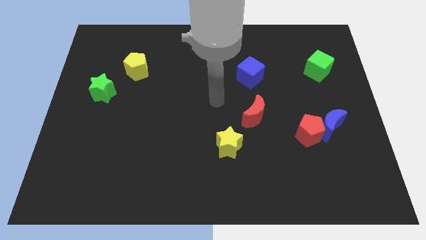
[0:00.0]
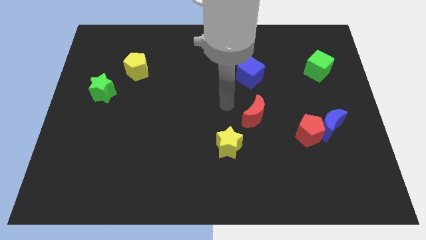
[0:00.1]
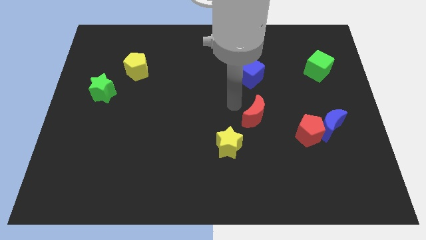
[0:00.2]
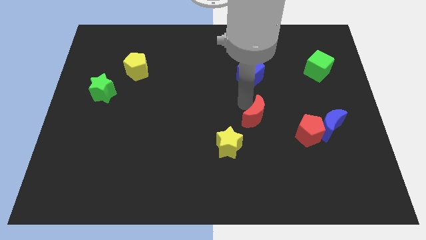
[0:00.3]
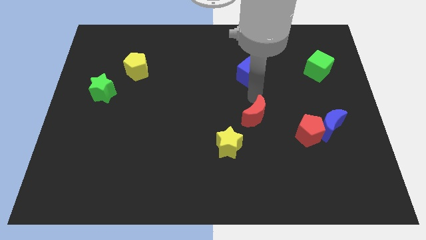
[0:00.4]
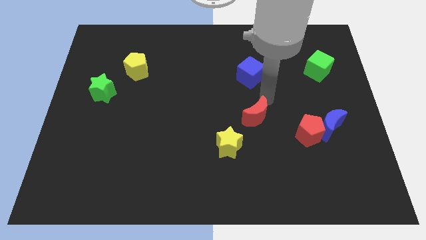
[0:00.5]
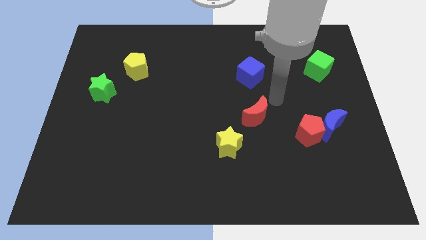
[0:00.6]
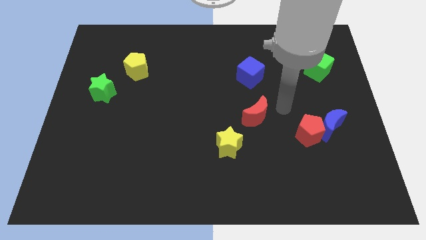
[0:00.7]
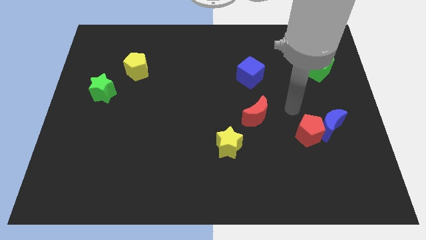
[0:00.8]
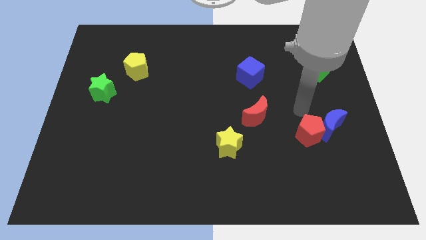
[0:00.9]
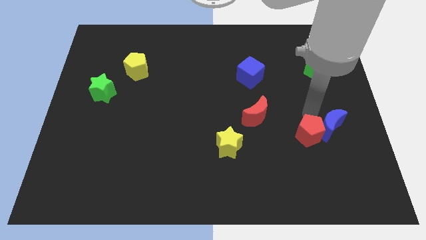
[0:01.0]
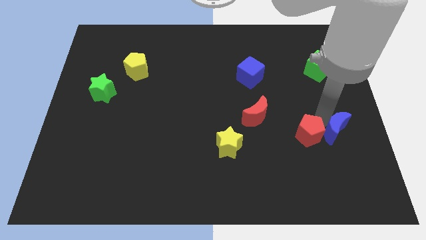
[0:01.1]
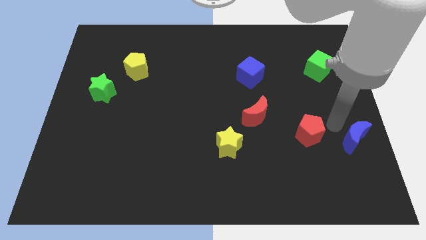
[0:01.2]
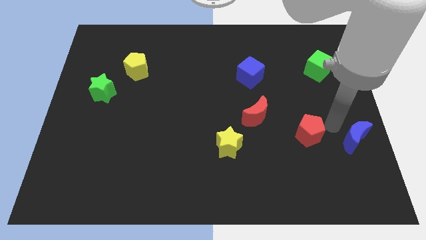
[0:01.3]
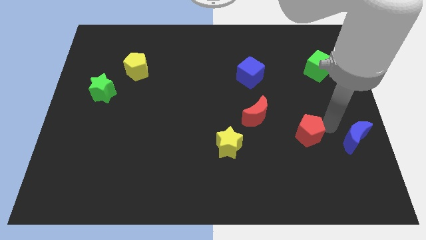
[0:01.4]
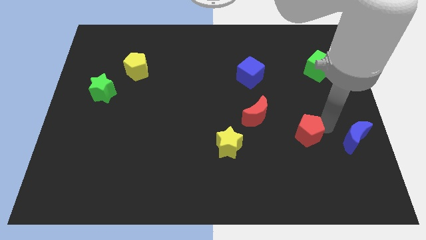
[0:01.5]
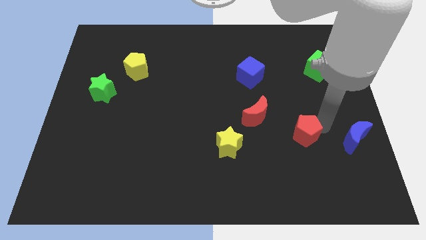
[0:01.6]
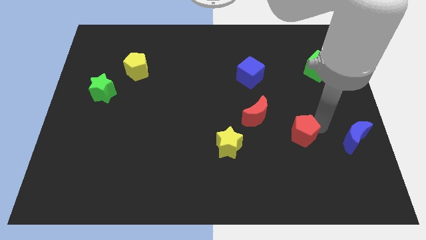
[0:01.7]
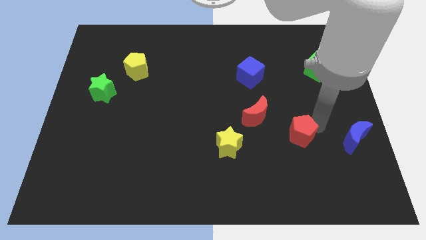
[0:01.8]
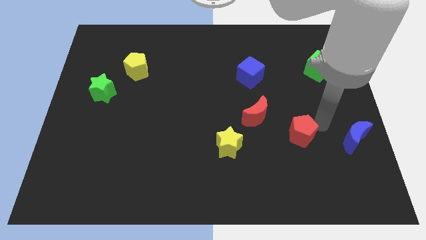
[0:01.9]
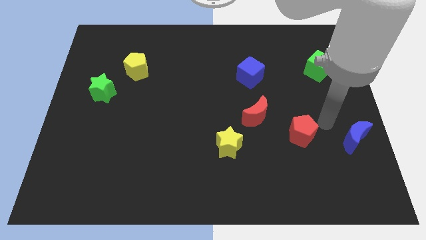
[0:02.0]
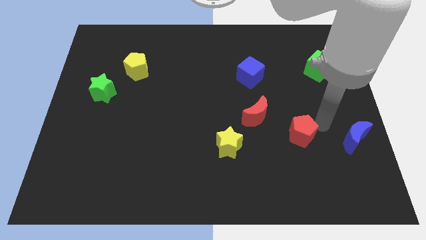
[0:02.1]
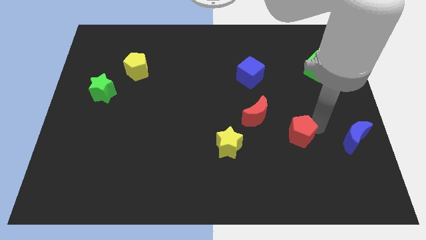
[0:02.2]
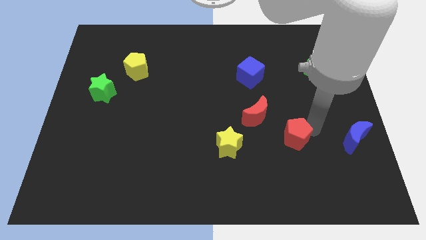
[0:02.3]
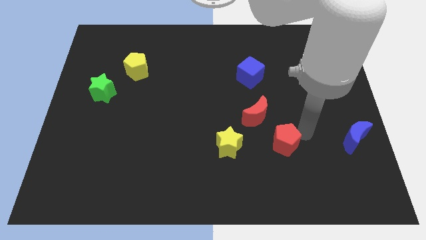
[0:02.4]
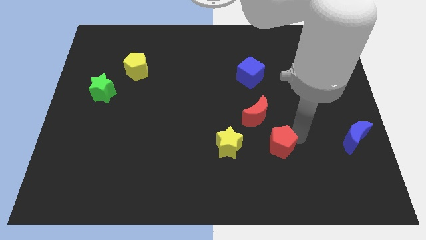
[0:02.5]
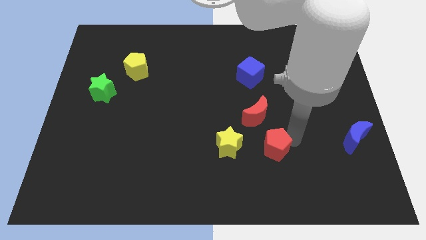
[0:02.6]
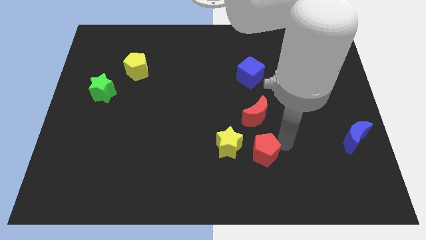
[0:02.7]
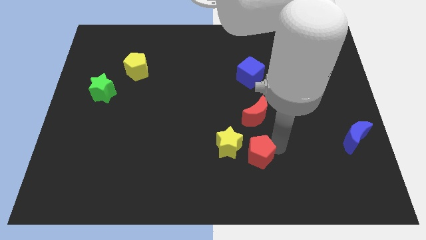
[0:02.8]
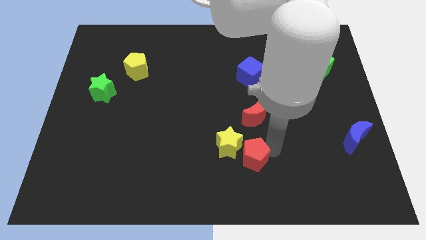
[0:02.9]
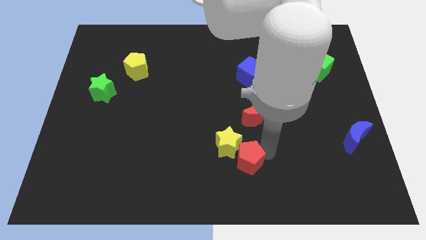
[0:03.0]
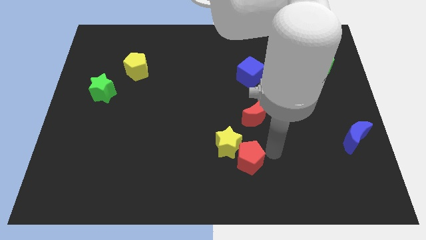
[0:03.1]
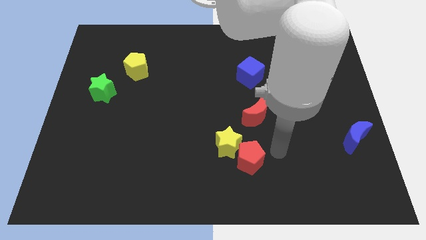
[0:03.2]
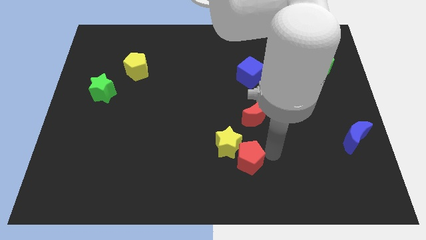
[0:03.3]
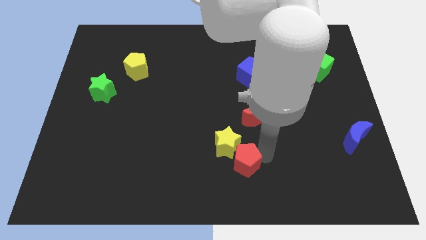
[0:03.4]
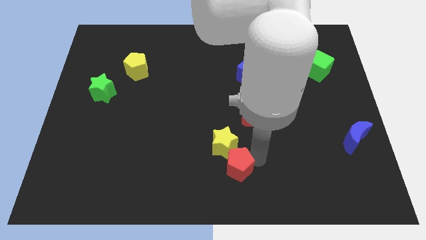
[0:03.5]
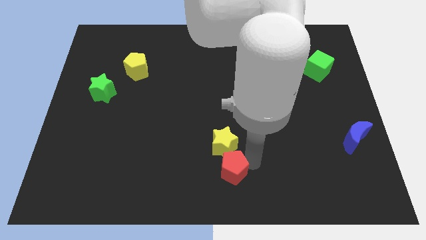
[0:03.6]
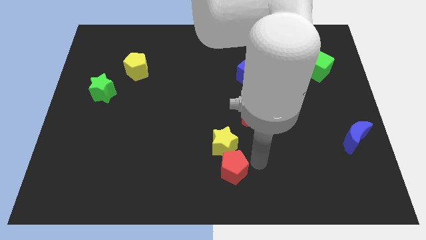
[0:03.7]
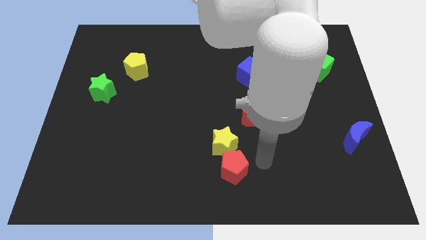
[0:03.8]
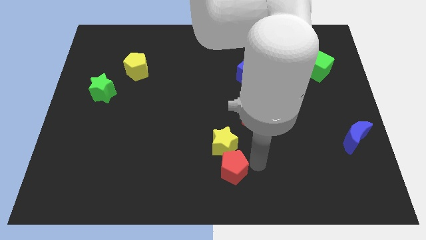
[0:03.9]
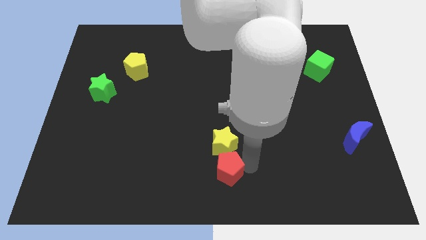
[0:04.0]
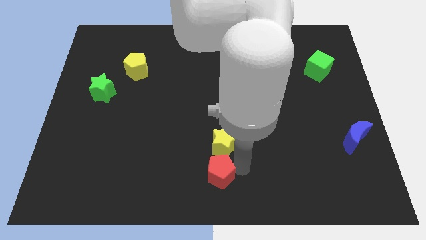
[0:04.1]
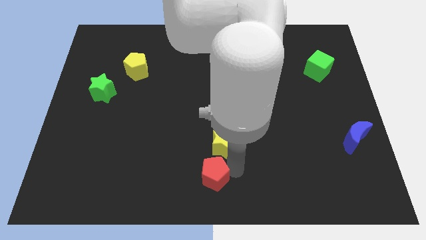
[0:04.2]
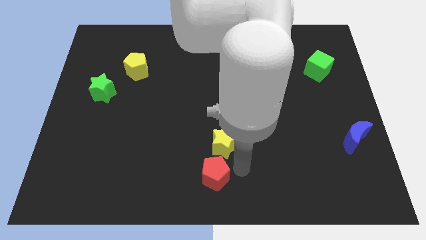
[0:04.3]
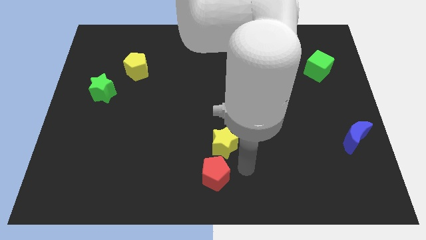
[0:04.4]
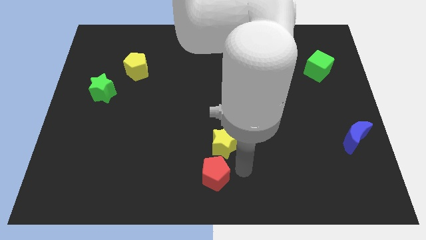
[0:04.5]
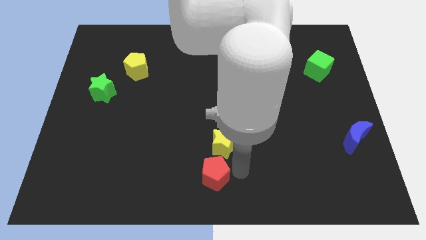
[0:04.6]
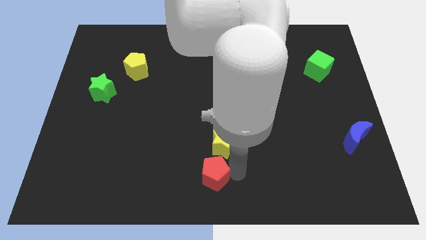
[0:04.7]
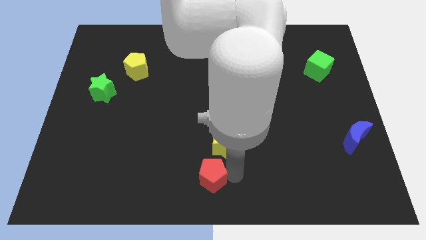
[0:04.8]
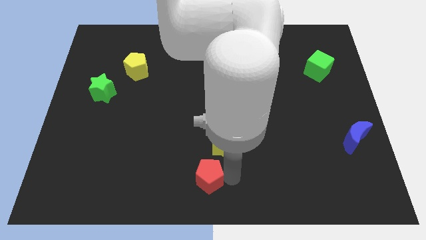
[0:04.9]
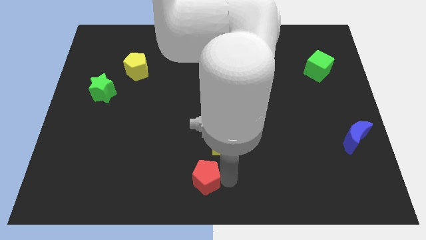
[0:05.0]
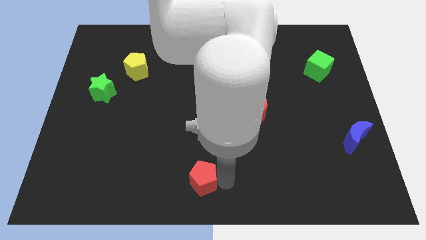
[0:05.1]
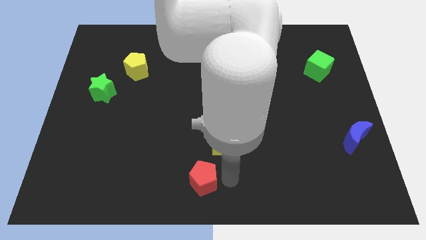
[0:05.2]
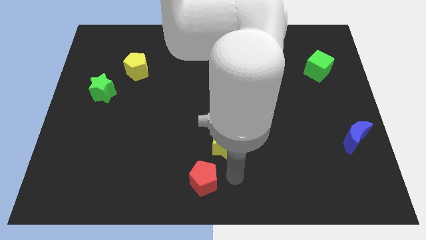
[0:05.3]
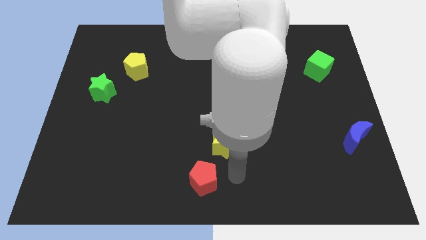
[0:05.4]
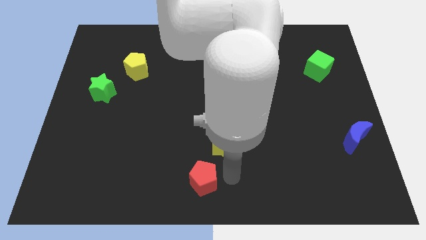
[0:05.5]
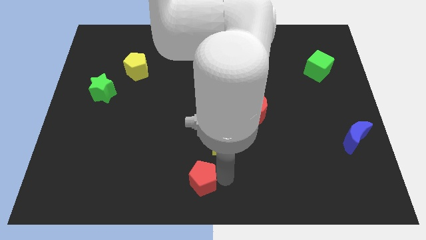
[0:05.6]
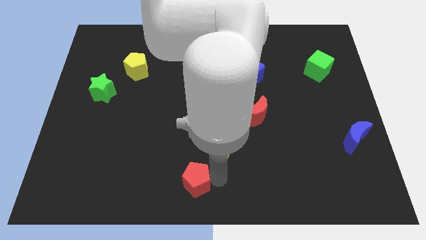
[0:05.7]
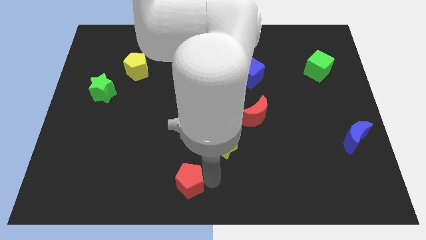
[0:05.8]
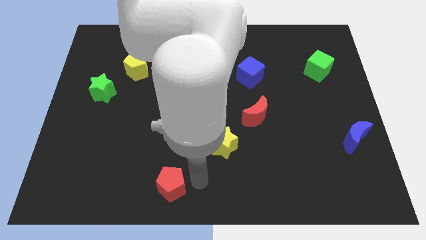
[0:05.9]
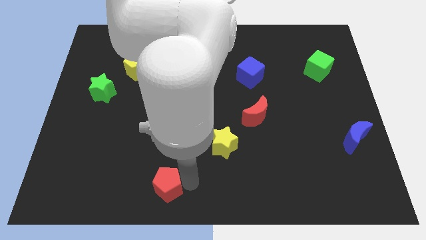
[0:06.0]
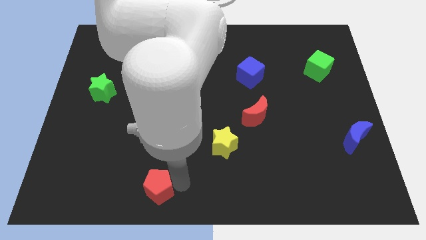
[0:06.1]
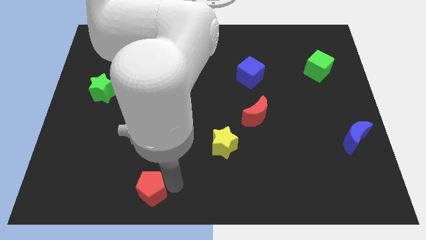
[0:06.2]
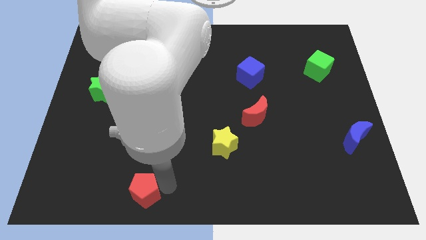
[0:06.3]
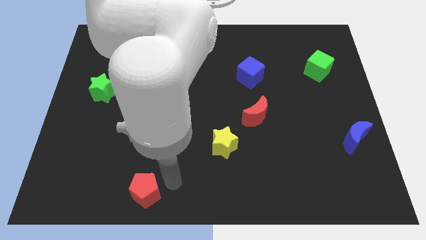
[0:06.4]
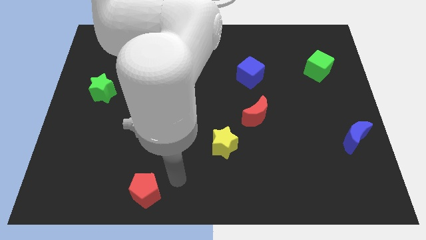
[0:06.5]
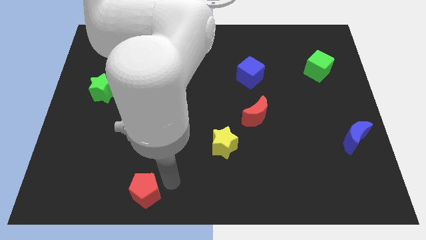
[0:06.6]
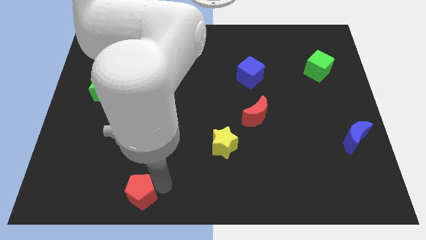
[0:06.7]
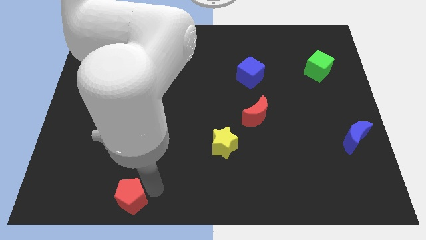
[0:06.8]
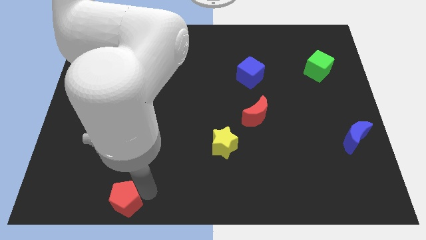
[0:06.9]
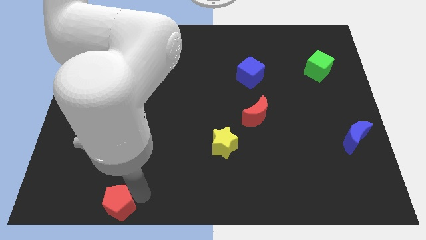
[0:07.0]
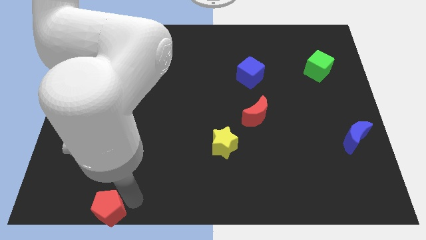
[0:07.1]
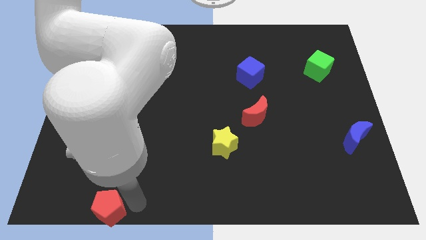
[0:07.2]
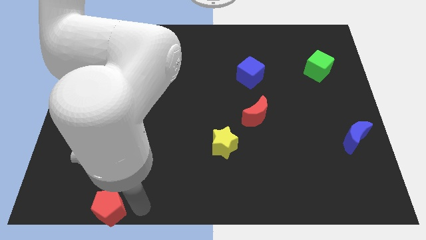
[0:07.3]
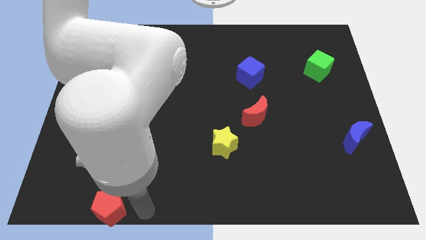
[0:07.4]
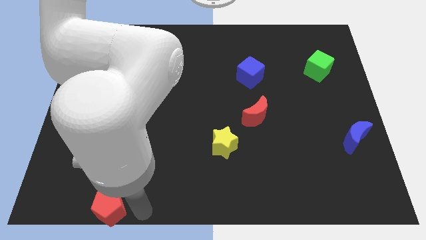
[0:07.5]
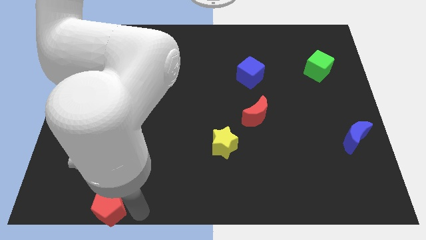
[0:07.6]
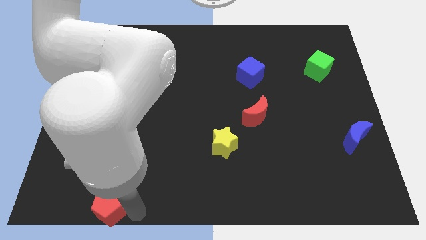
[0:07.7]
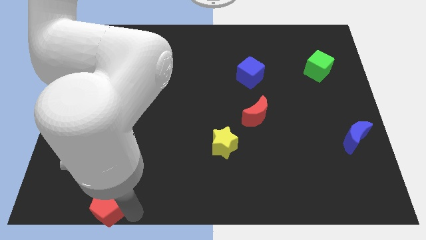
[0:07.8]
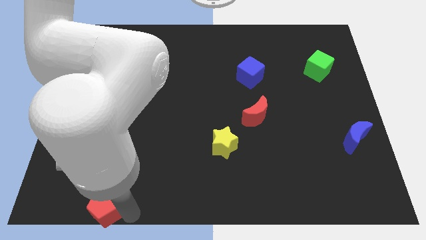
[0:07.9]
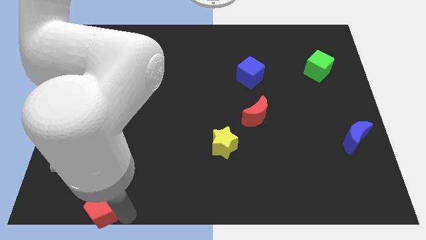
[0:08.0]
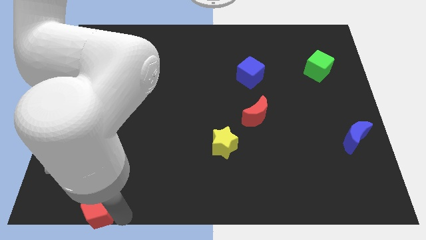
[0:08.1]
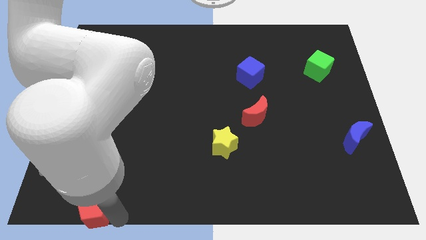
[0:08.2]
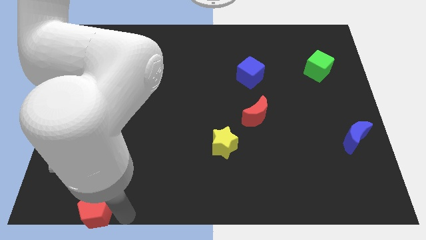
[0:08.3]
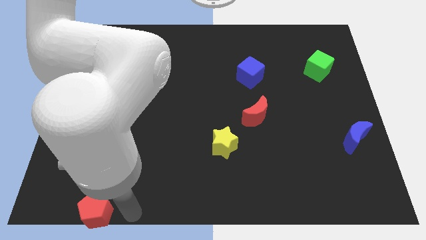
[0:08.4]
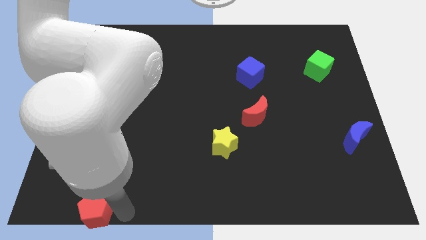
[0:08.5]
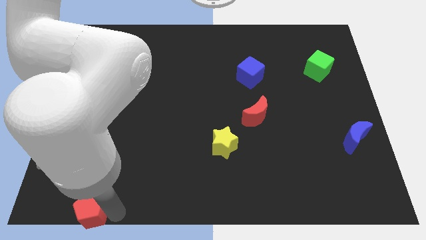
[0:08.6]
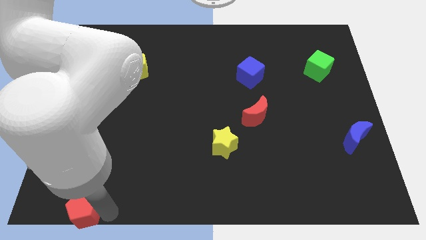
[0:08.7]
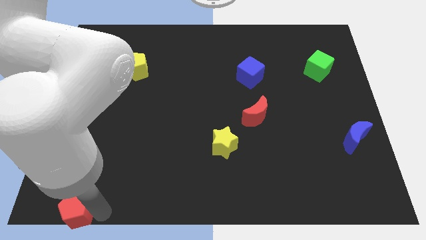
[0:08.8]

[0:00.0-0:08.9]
put the red pentagon to the bottom left of the board
